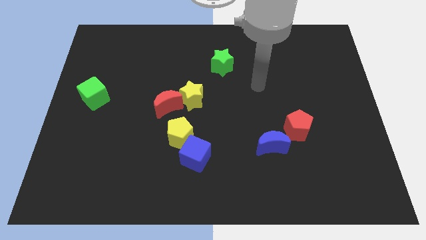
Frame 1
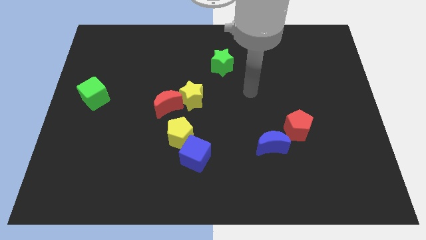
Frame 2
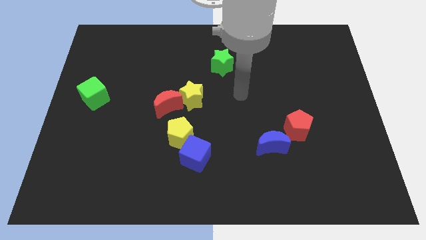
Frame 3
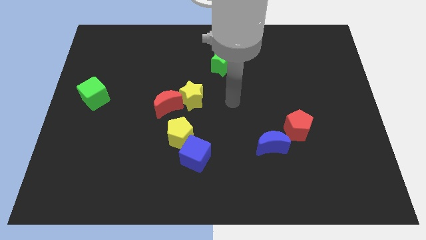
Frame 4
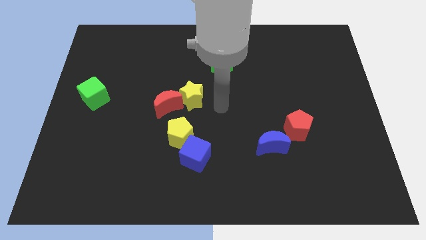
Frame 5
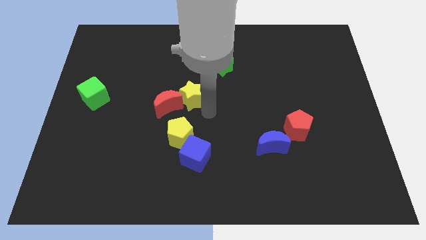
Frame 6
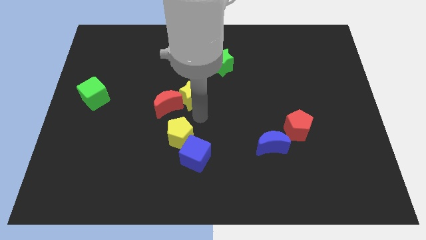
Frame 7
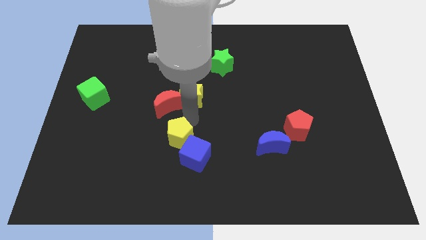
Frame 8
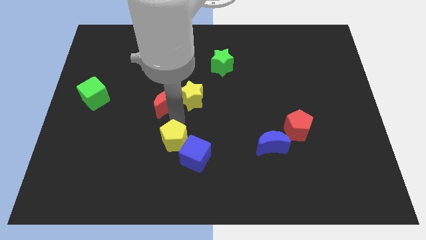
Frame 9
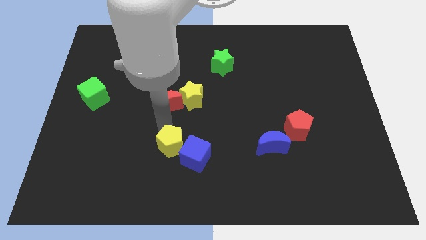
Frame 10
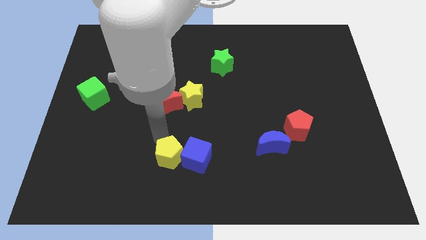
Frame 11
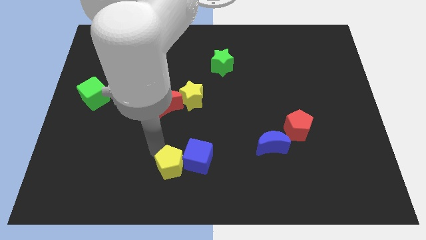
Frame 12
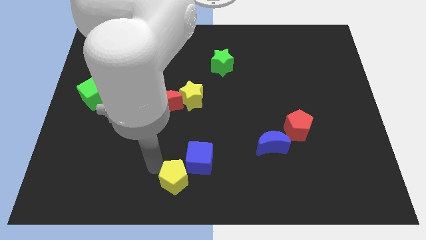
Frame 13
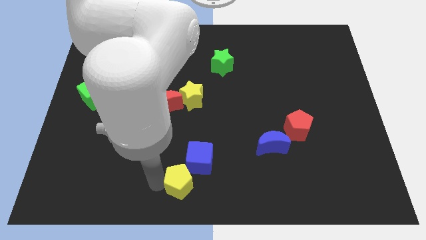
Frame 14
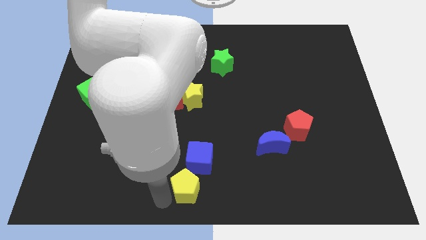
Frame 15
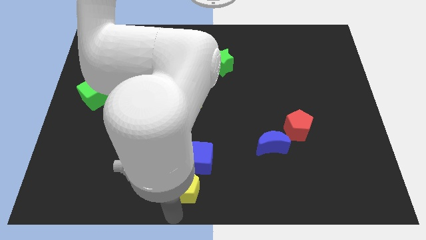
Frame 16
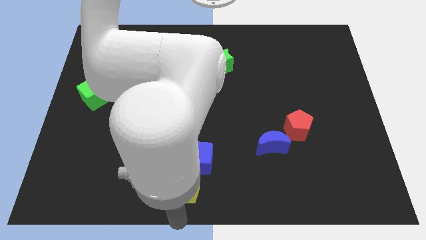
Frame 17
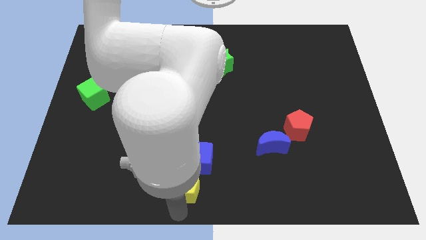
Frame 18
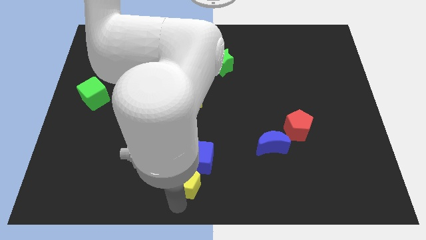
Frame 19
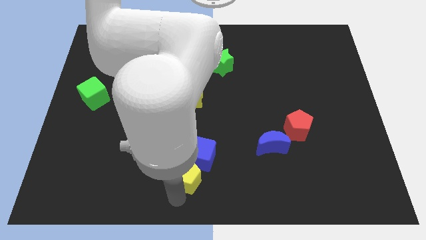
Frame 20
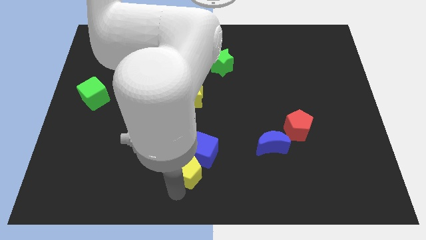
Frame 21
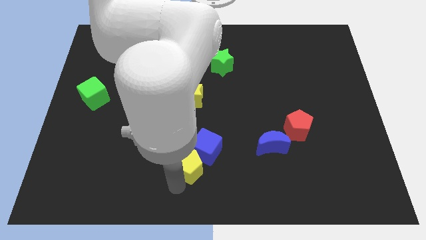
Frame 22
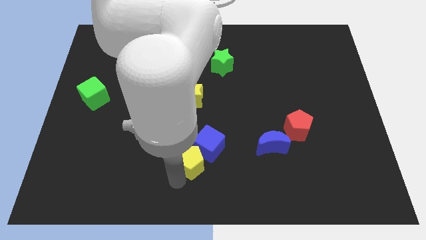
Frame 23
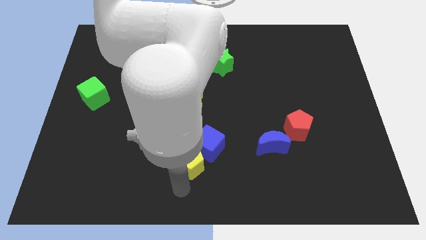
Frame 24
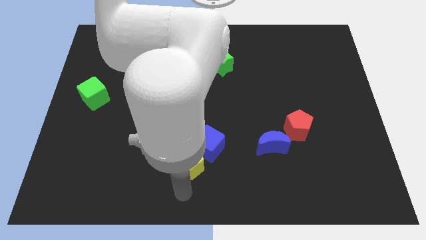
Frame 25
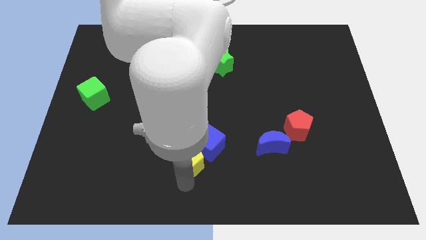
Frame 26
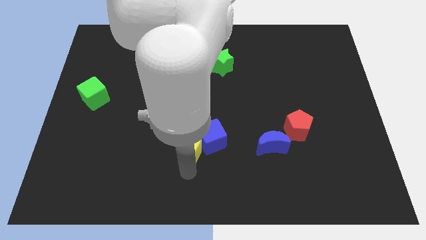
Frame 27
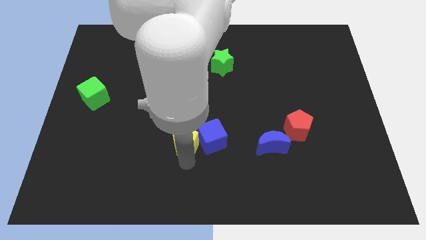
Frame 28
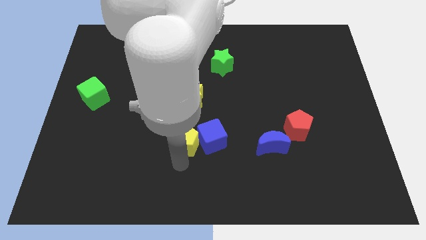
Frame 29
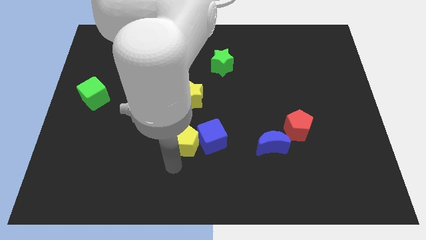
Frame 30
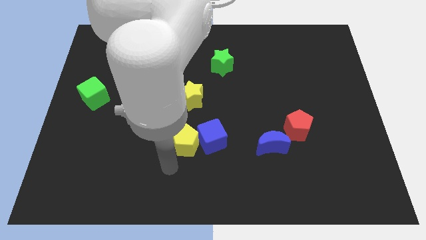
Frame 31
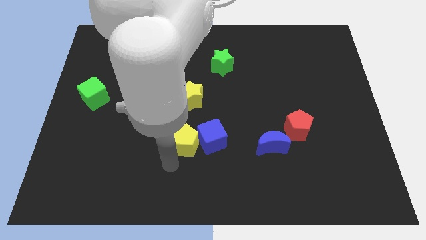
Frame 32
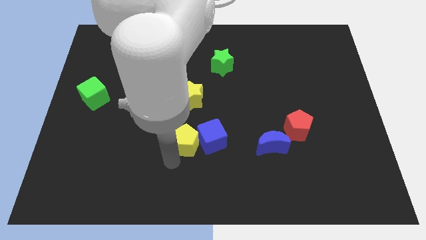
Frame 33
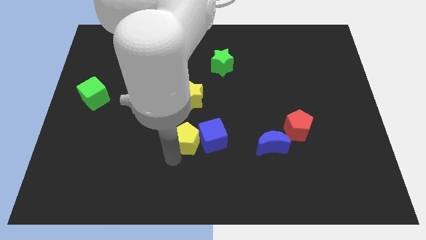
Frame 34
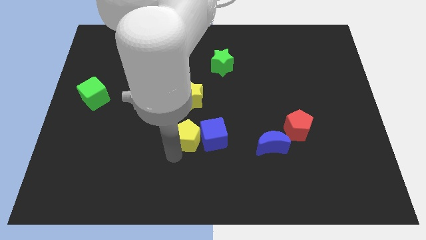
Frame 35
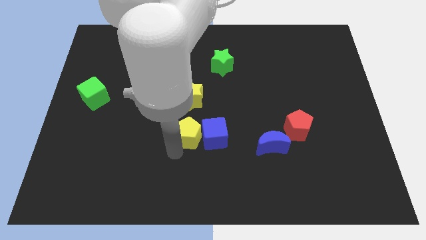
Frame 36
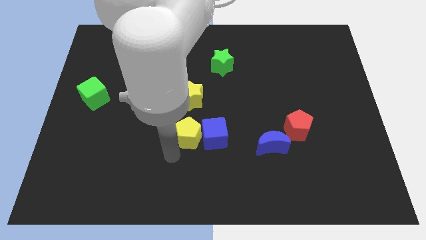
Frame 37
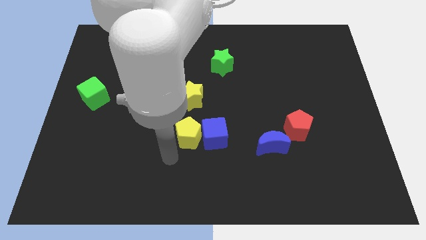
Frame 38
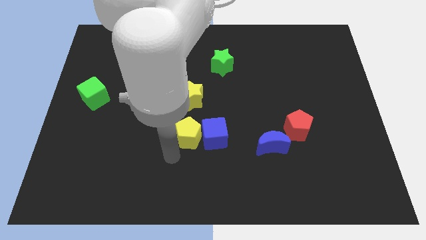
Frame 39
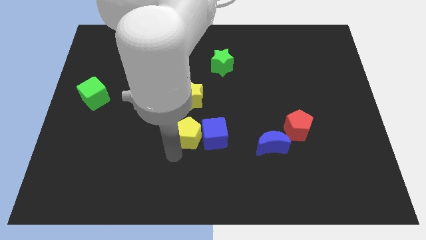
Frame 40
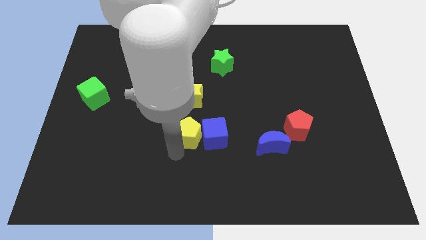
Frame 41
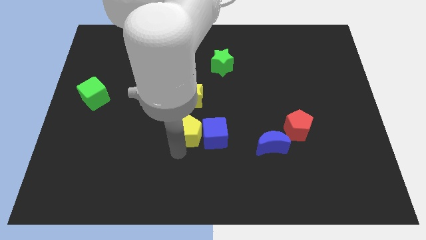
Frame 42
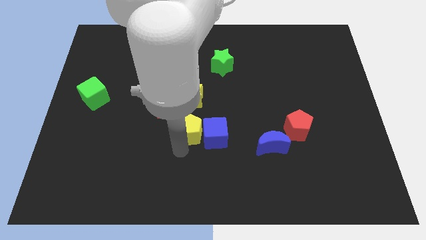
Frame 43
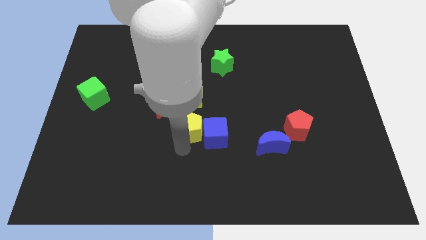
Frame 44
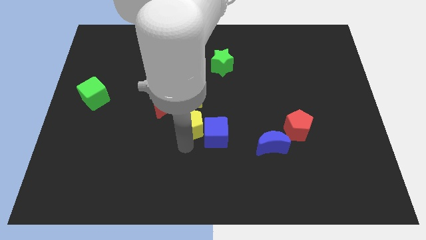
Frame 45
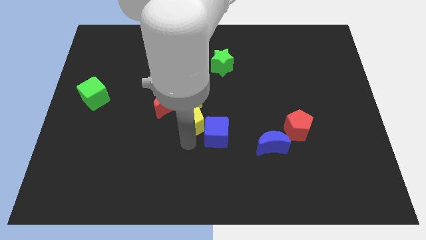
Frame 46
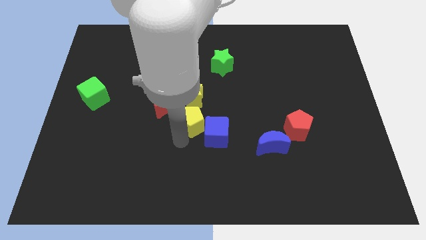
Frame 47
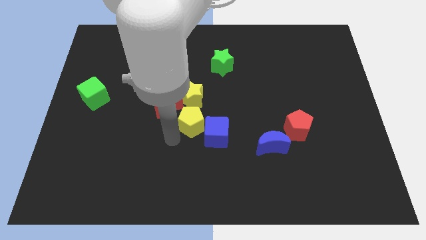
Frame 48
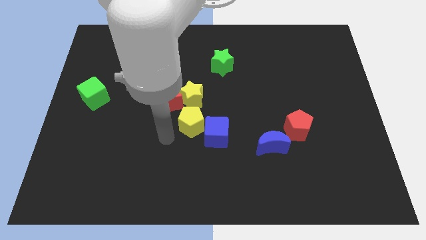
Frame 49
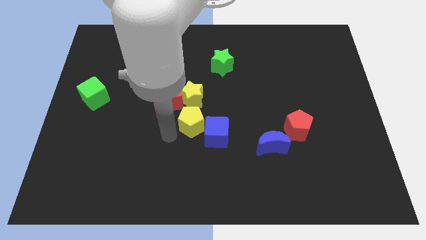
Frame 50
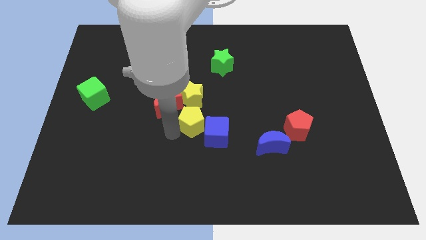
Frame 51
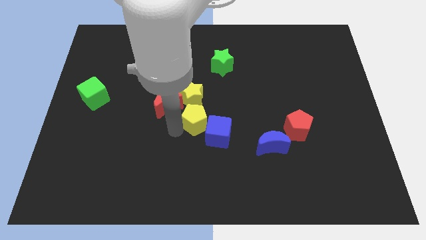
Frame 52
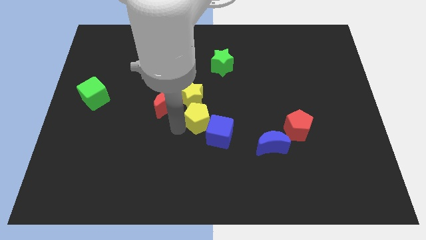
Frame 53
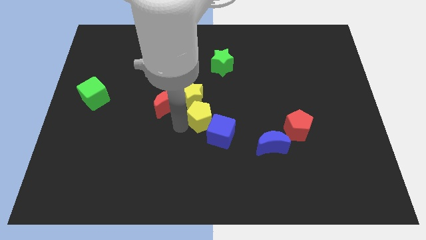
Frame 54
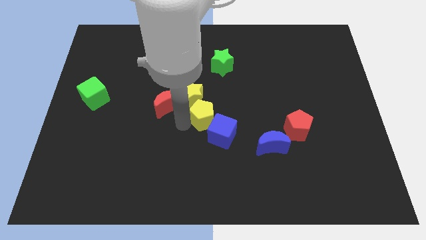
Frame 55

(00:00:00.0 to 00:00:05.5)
push the yellow pentagon upwards and right somewhat

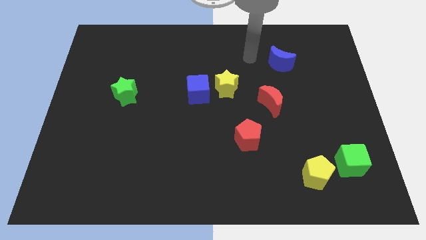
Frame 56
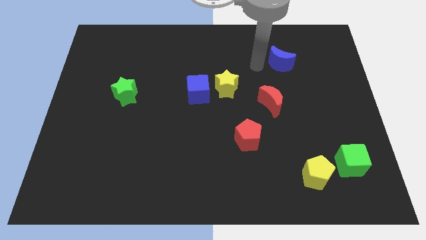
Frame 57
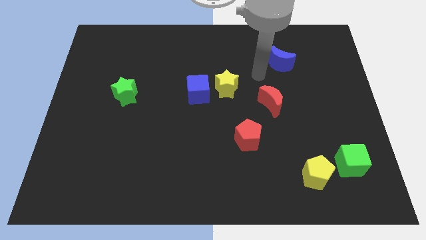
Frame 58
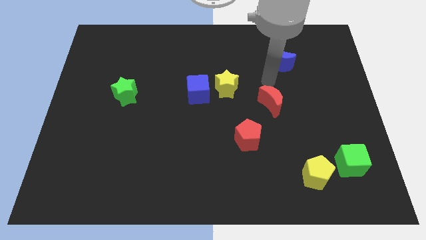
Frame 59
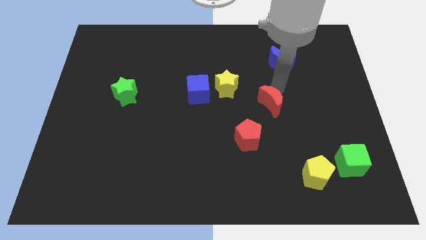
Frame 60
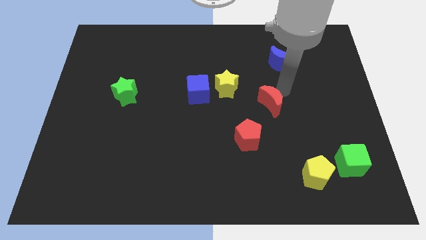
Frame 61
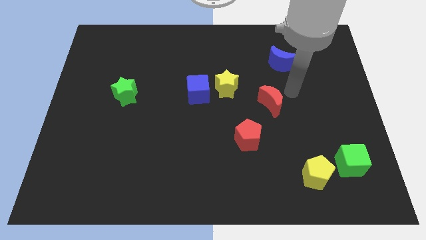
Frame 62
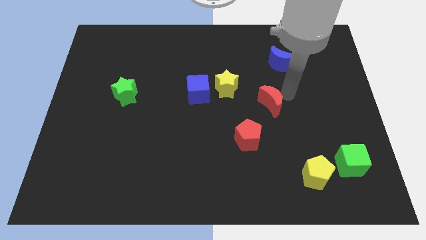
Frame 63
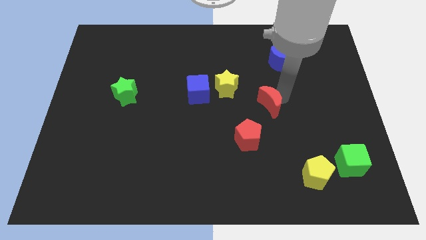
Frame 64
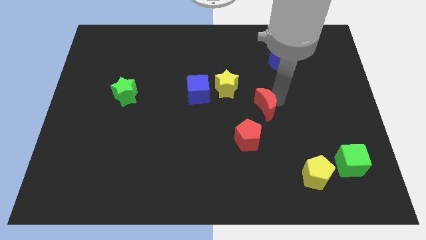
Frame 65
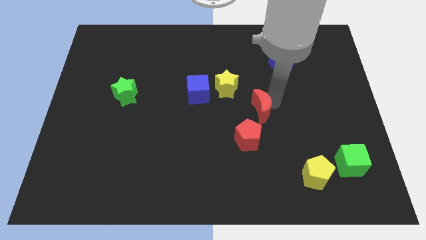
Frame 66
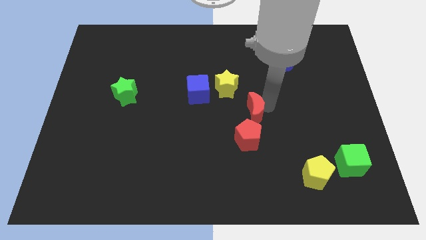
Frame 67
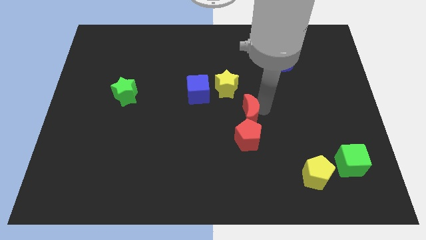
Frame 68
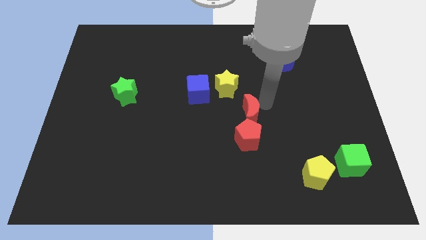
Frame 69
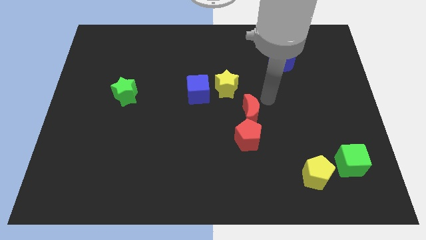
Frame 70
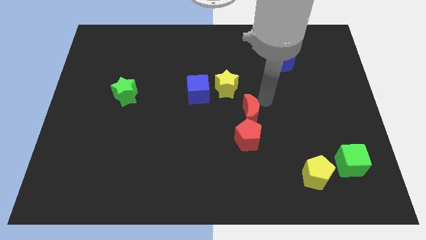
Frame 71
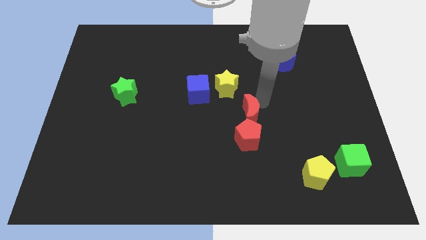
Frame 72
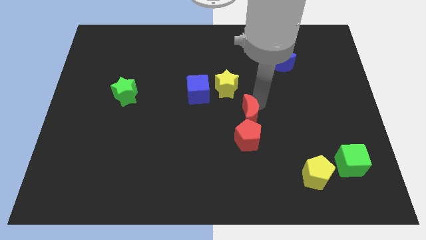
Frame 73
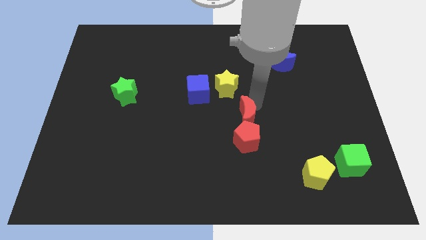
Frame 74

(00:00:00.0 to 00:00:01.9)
slide the red moon downwards and to the left slightly

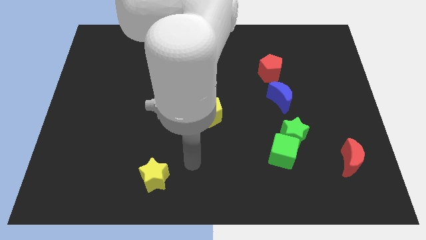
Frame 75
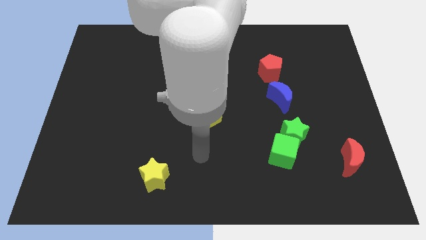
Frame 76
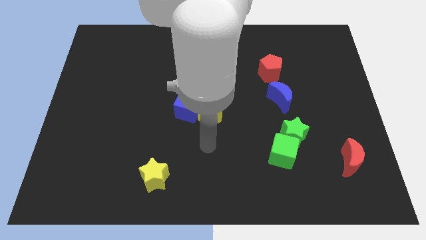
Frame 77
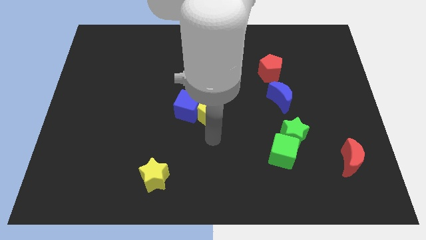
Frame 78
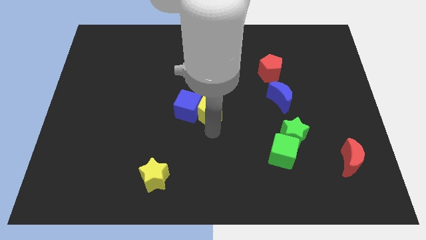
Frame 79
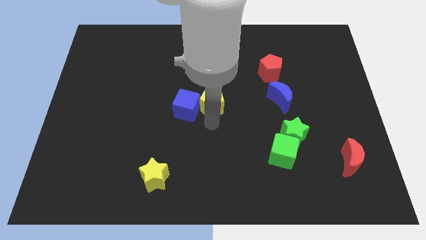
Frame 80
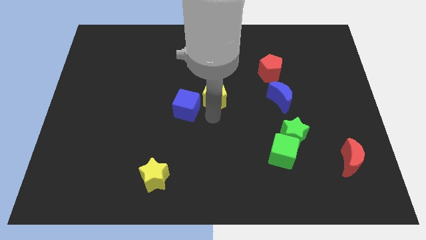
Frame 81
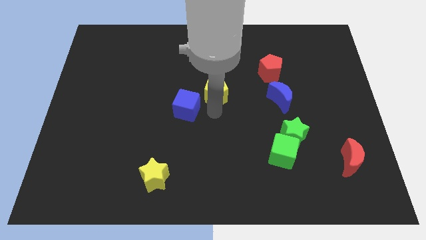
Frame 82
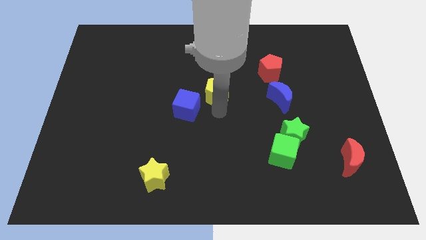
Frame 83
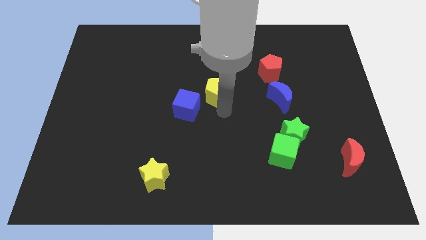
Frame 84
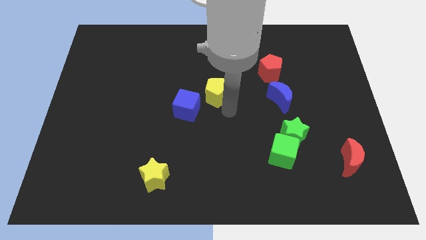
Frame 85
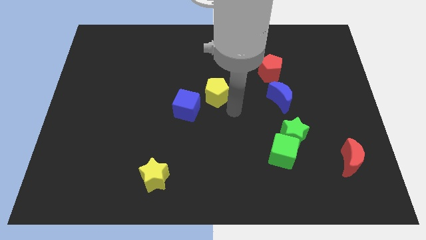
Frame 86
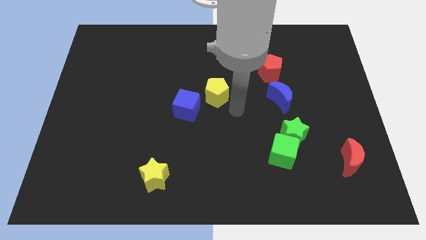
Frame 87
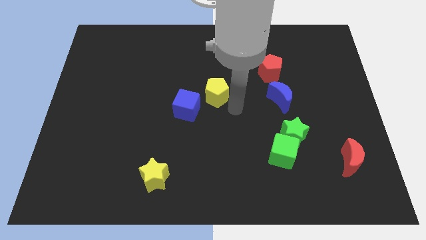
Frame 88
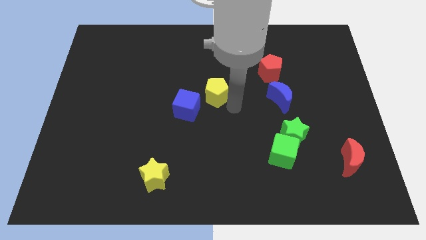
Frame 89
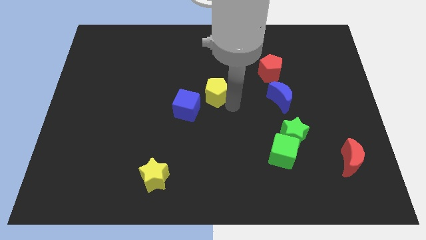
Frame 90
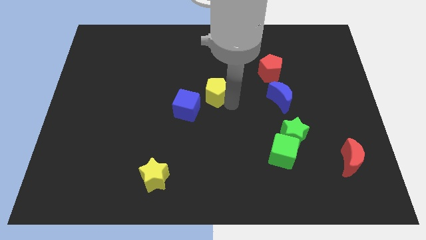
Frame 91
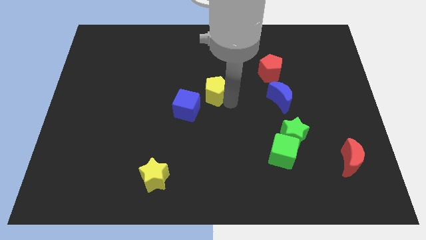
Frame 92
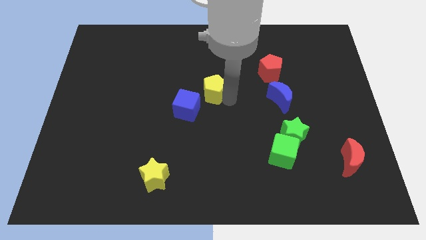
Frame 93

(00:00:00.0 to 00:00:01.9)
push the yellow pentagon somewhat upwards
